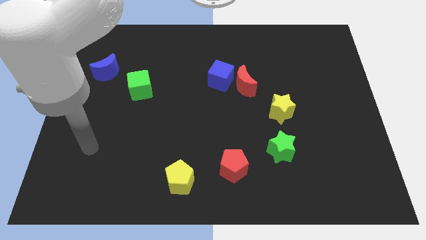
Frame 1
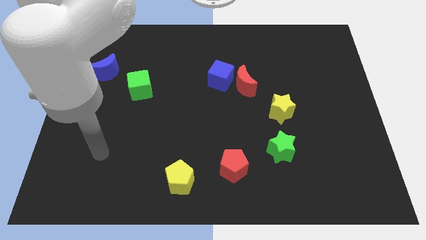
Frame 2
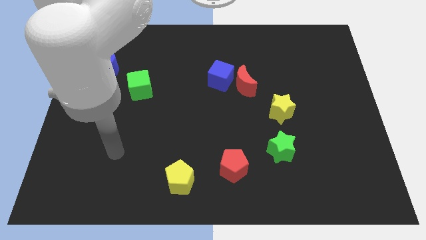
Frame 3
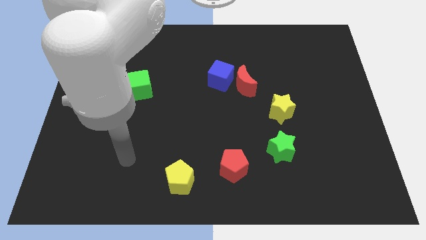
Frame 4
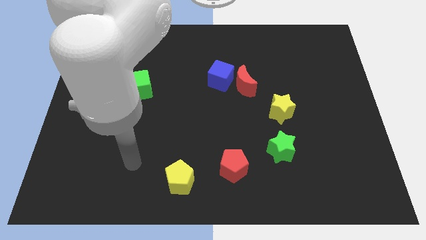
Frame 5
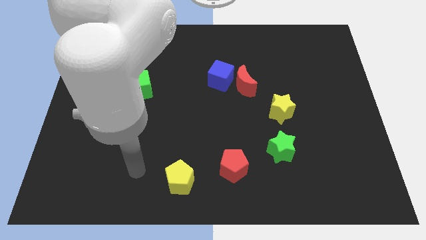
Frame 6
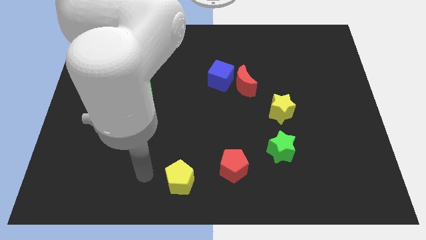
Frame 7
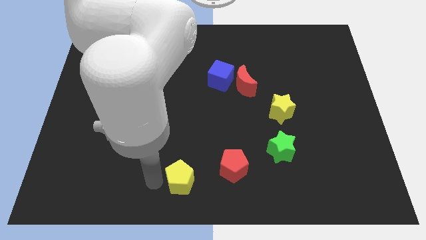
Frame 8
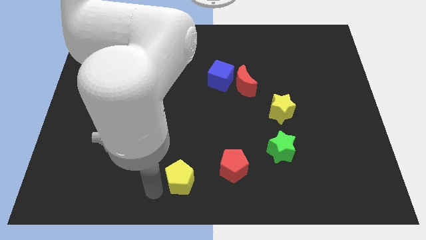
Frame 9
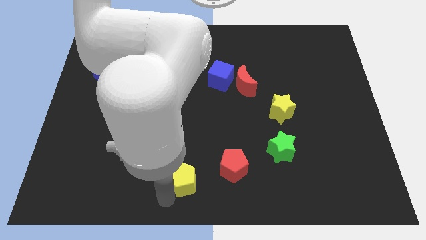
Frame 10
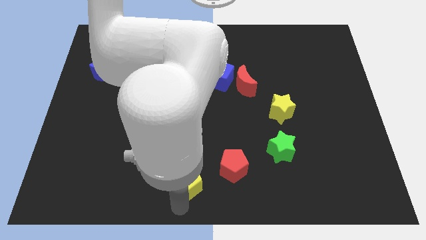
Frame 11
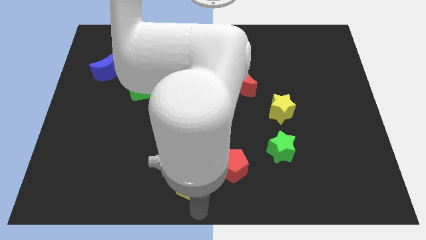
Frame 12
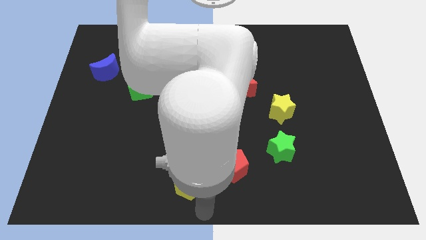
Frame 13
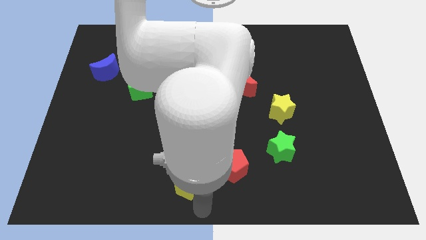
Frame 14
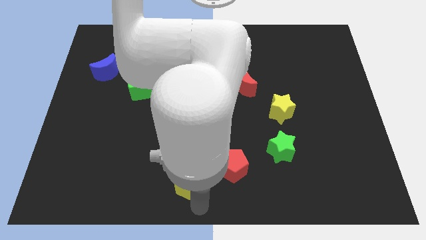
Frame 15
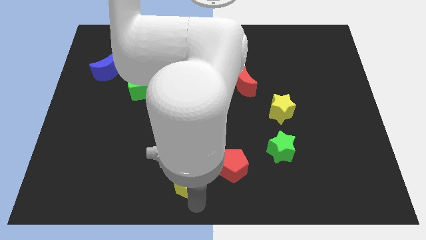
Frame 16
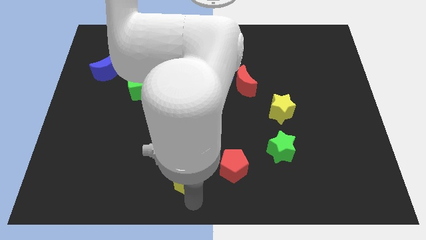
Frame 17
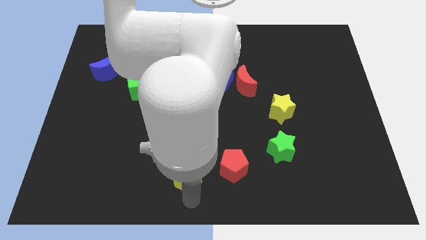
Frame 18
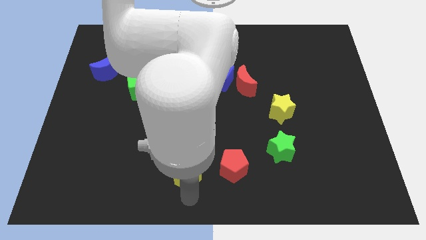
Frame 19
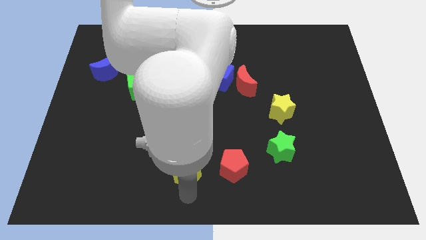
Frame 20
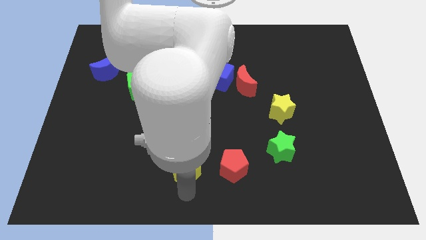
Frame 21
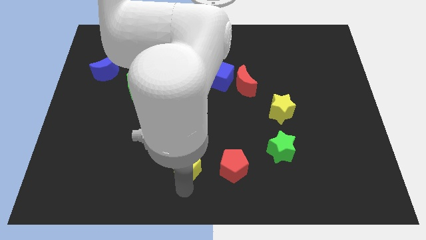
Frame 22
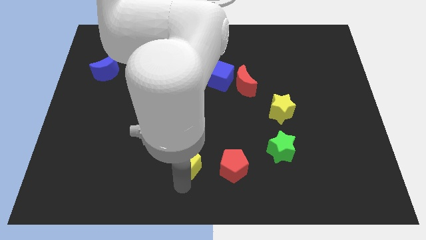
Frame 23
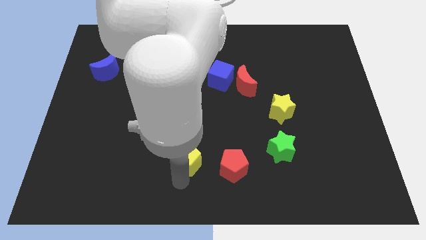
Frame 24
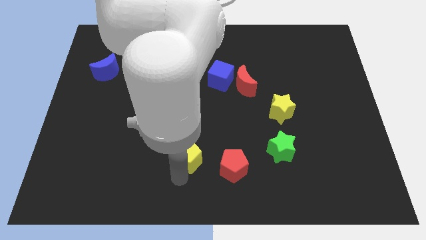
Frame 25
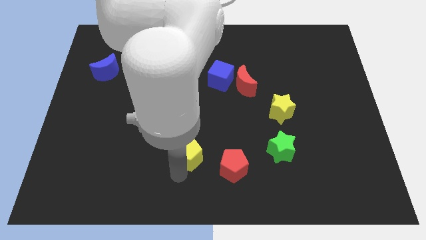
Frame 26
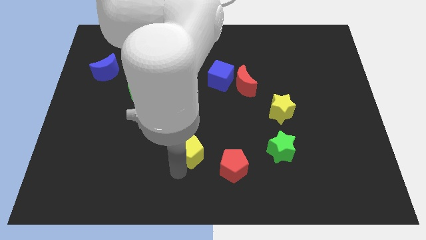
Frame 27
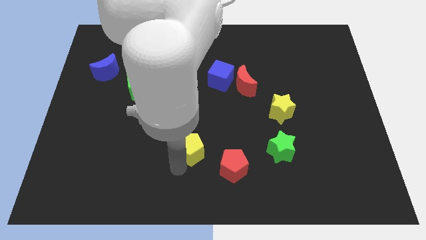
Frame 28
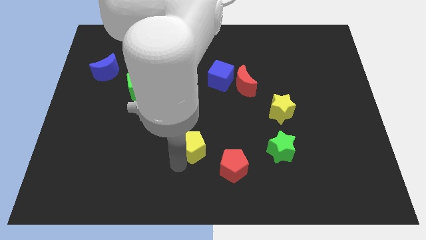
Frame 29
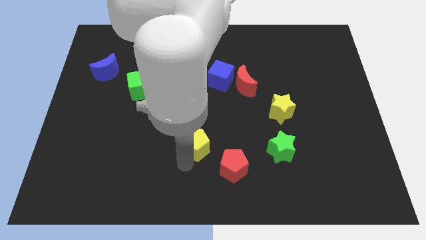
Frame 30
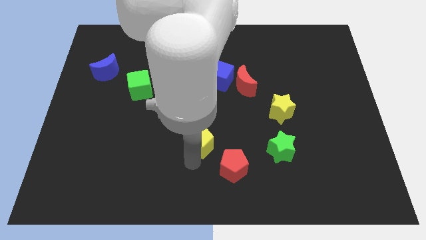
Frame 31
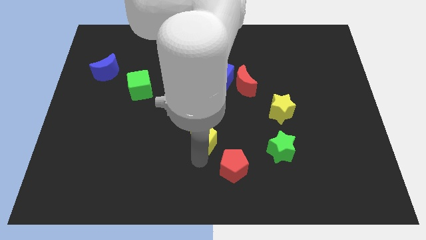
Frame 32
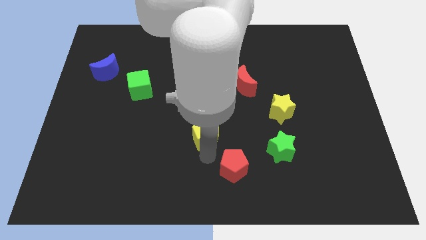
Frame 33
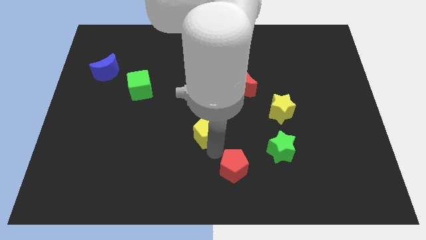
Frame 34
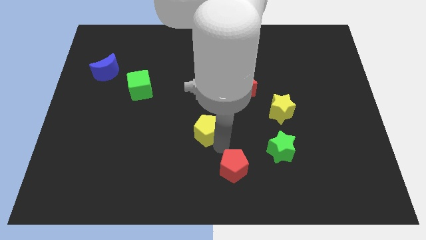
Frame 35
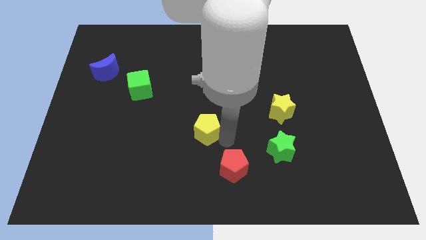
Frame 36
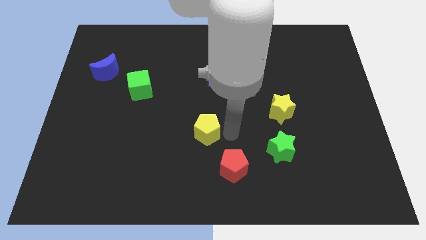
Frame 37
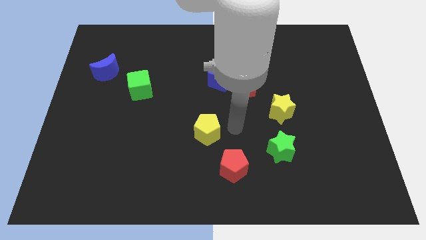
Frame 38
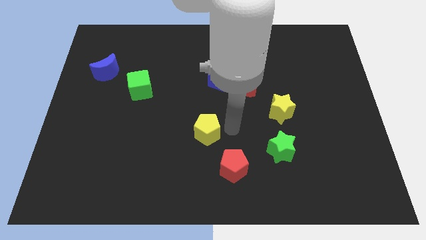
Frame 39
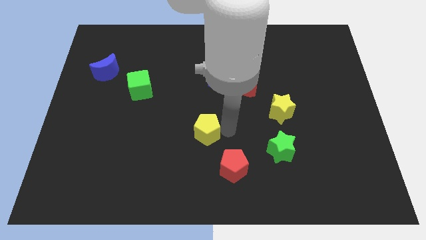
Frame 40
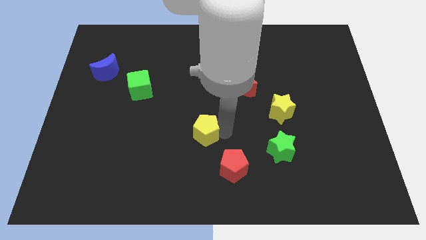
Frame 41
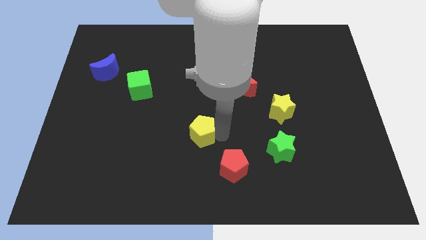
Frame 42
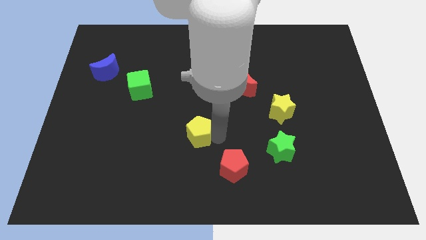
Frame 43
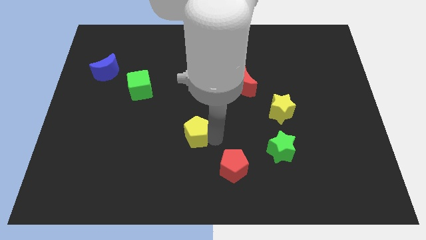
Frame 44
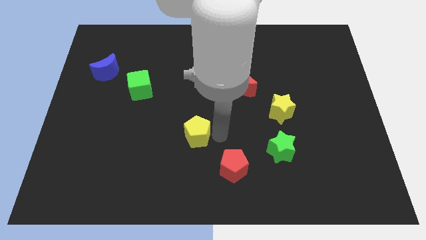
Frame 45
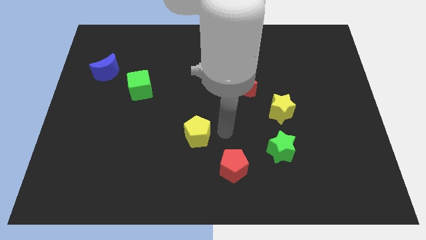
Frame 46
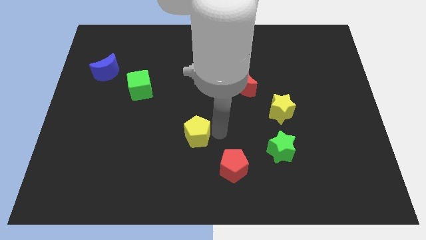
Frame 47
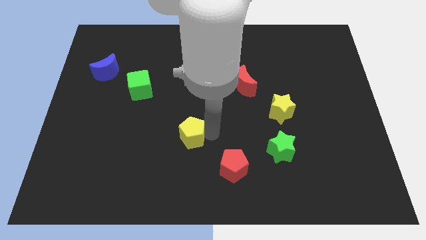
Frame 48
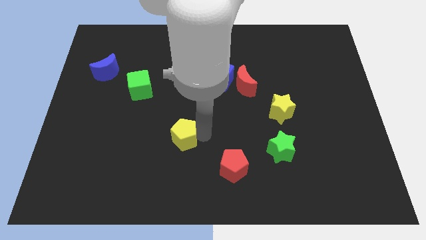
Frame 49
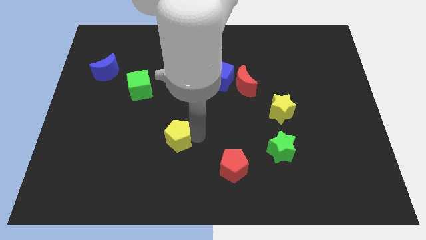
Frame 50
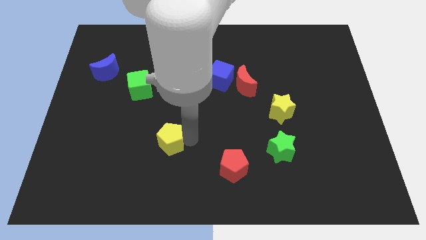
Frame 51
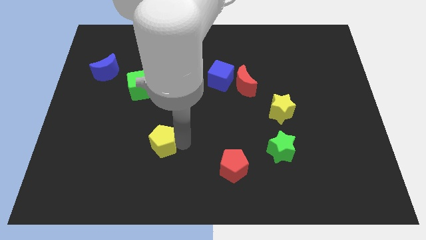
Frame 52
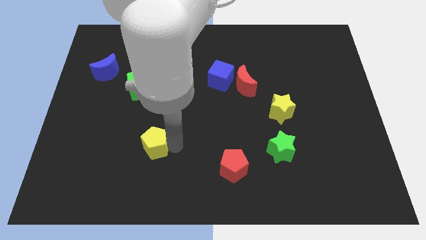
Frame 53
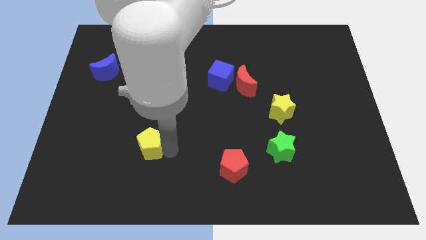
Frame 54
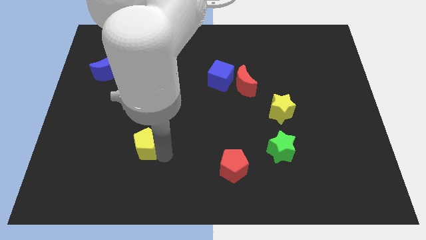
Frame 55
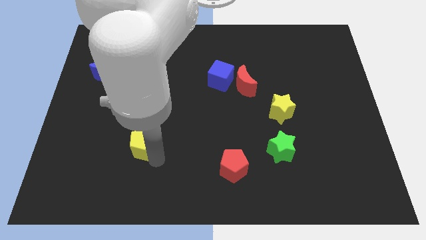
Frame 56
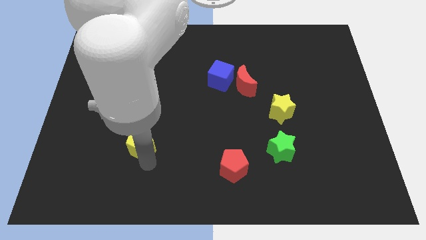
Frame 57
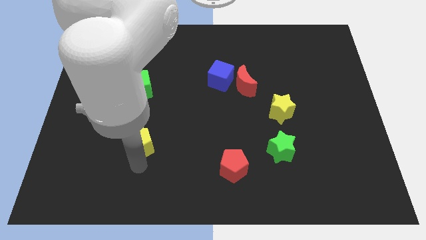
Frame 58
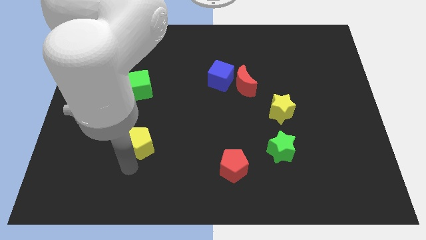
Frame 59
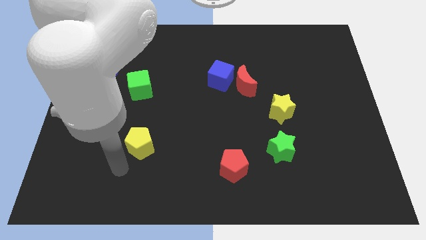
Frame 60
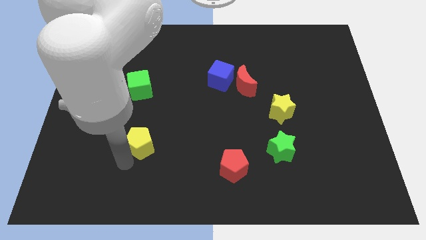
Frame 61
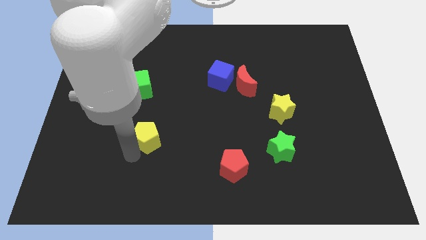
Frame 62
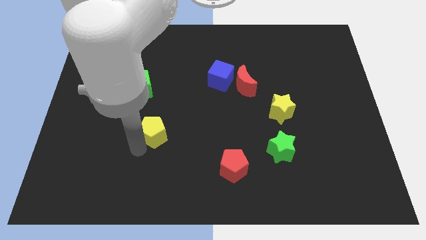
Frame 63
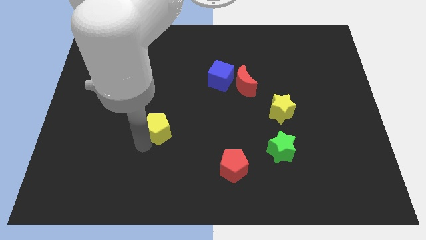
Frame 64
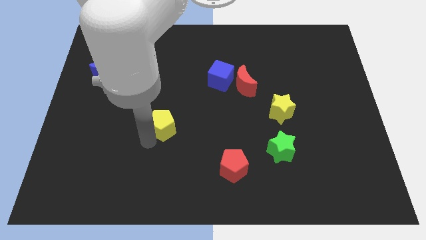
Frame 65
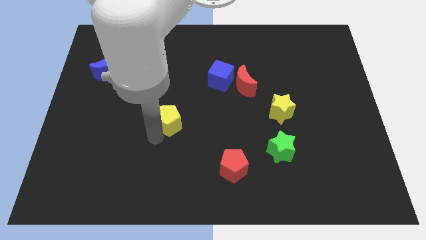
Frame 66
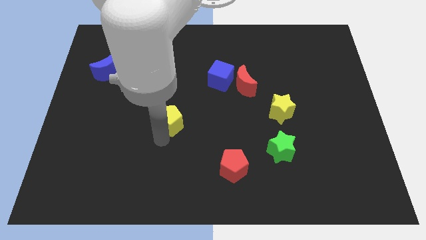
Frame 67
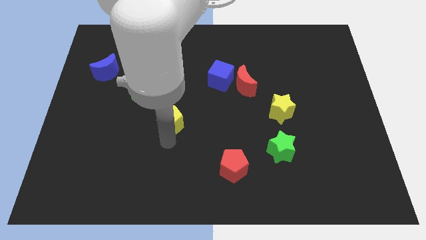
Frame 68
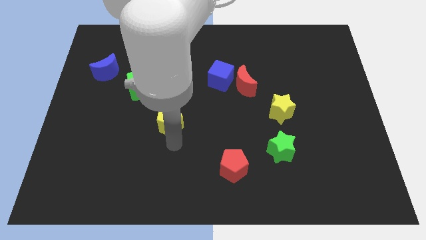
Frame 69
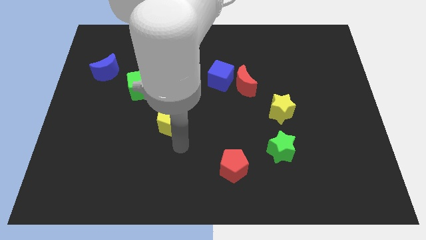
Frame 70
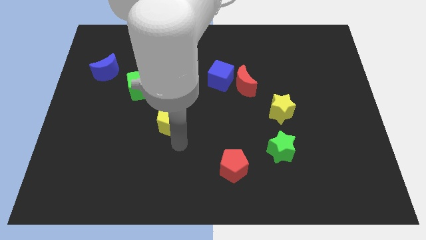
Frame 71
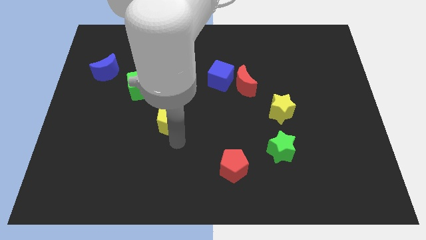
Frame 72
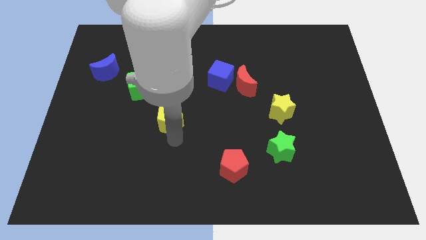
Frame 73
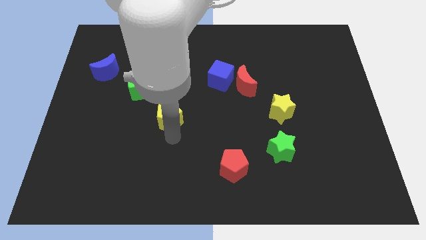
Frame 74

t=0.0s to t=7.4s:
push the yellow pentagon diagonally down and to the right of the green cube
